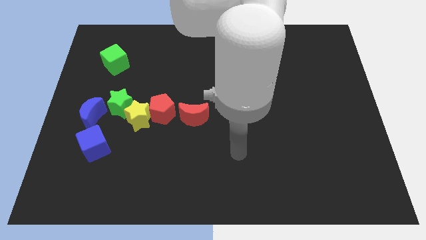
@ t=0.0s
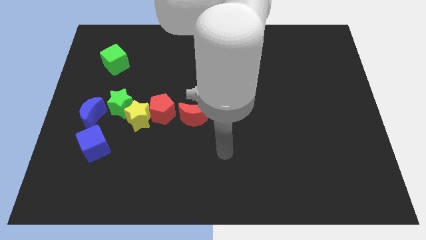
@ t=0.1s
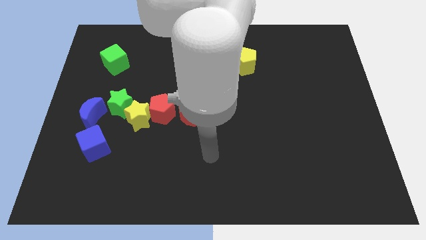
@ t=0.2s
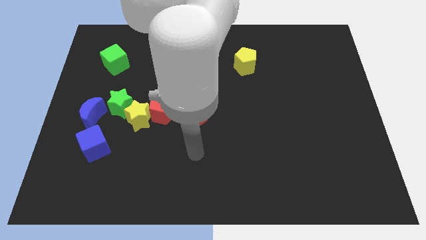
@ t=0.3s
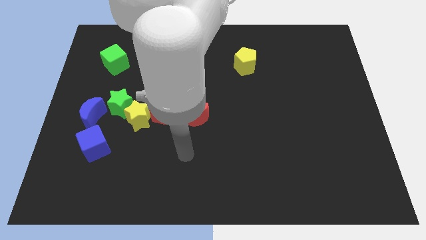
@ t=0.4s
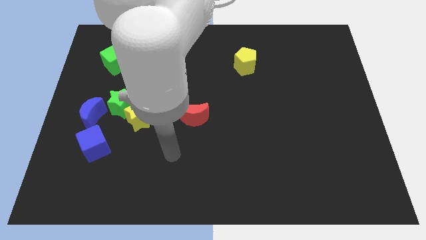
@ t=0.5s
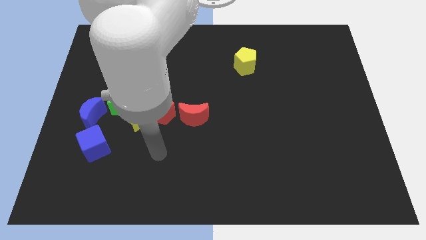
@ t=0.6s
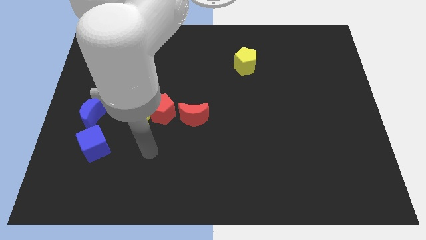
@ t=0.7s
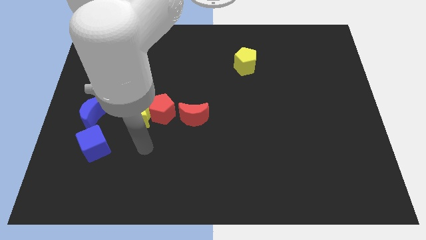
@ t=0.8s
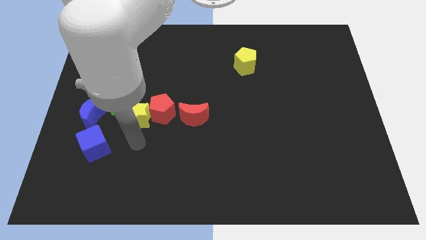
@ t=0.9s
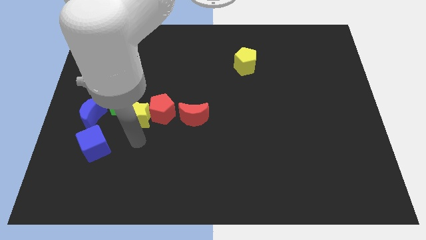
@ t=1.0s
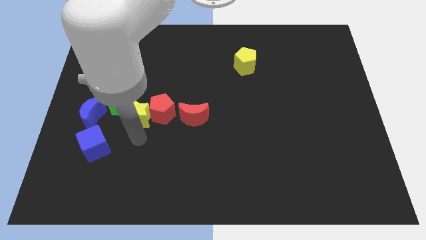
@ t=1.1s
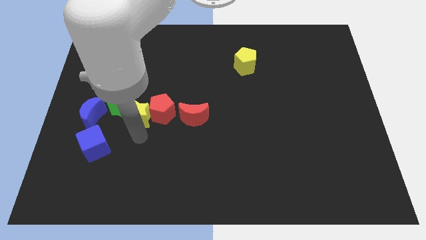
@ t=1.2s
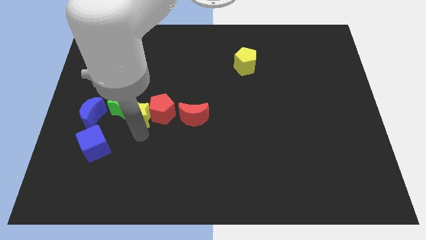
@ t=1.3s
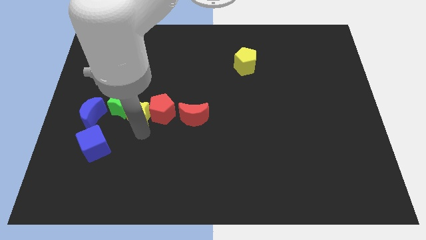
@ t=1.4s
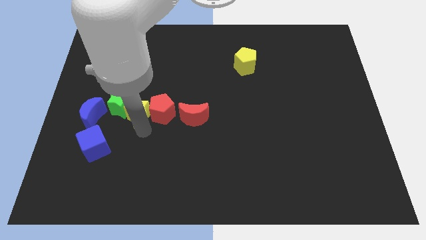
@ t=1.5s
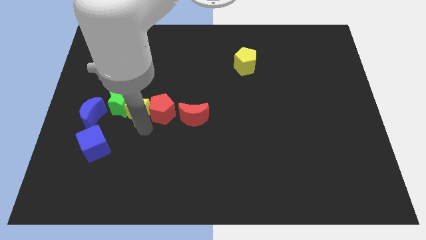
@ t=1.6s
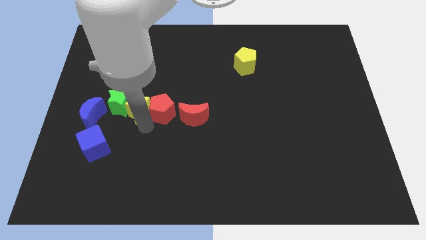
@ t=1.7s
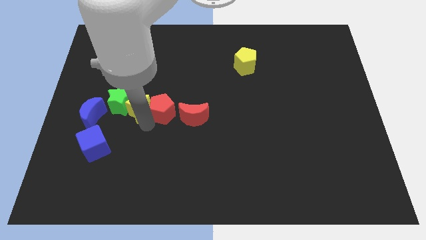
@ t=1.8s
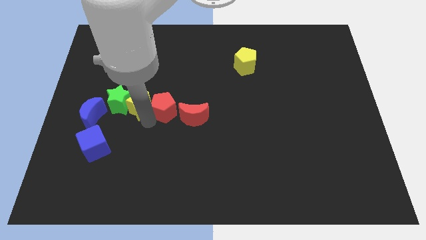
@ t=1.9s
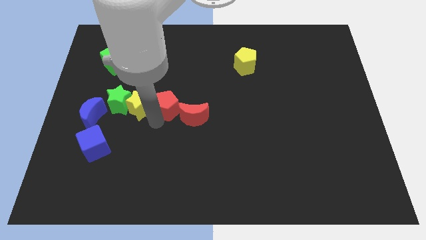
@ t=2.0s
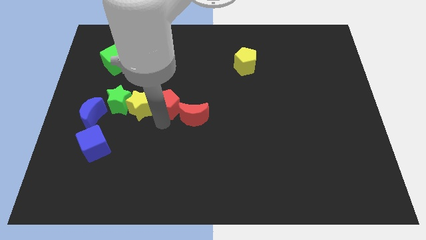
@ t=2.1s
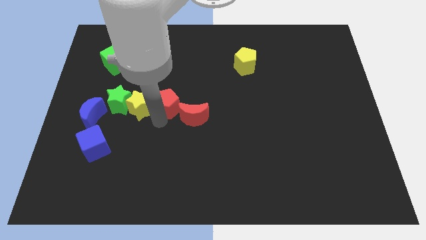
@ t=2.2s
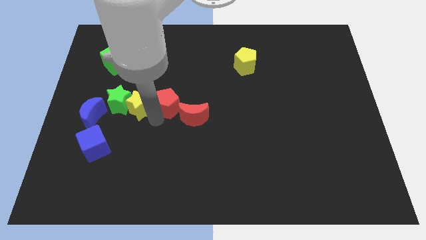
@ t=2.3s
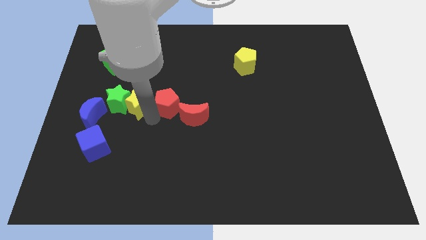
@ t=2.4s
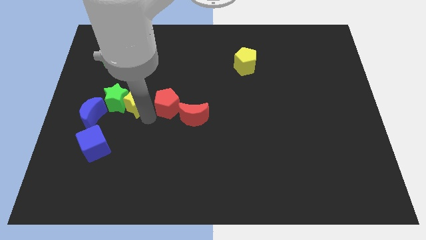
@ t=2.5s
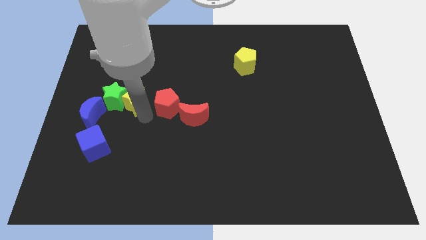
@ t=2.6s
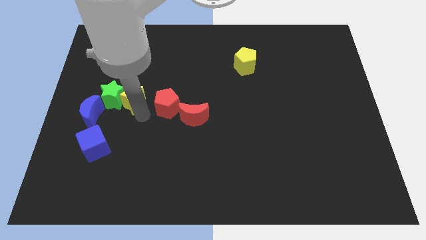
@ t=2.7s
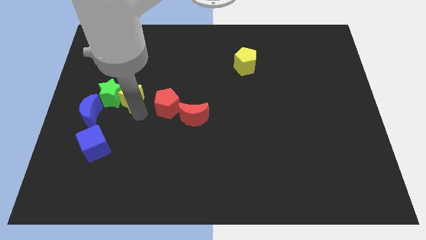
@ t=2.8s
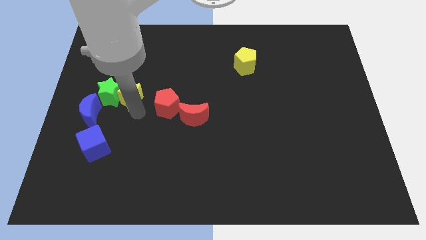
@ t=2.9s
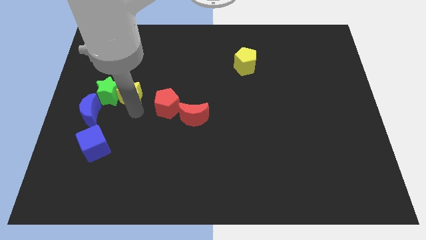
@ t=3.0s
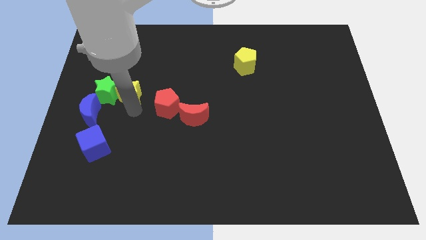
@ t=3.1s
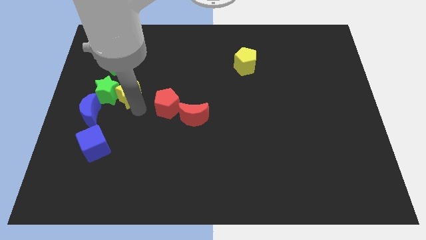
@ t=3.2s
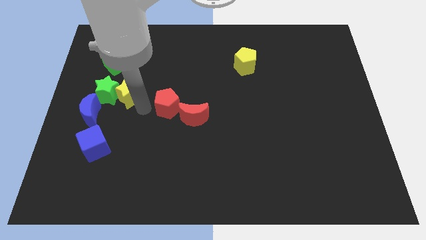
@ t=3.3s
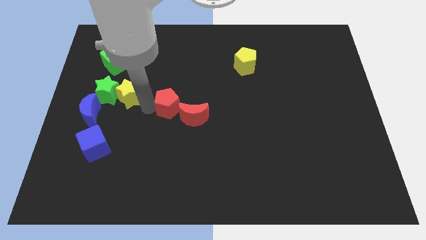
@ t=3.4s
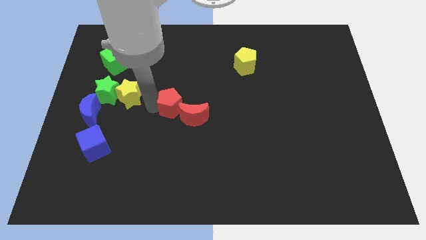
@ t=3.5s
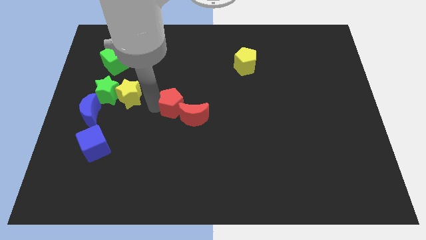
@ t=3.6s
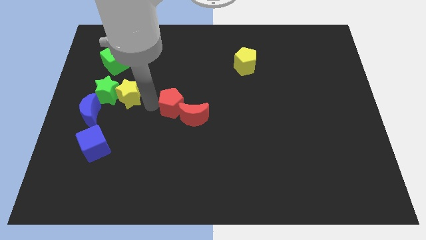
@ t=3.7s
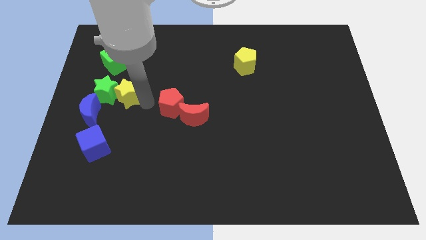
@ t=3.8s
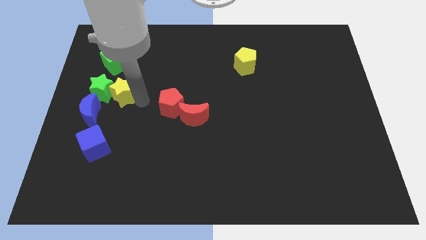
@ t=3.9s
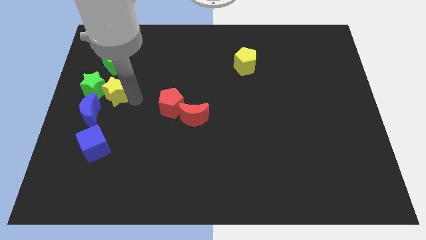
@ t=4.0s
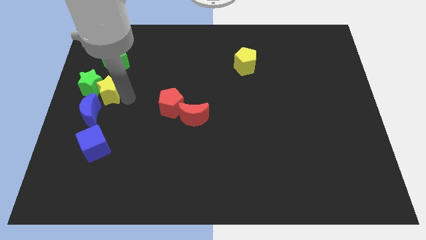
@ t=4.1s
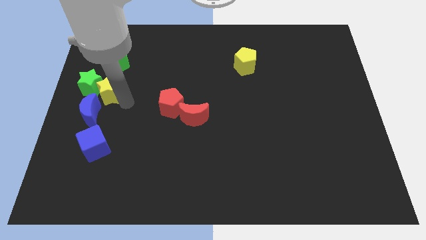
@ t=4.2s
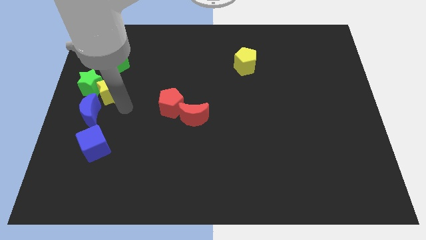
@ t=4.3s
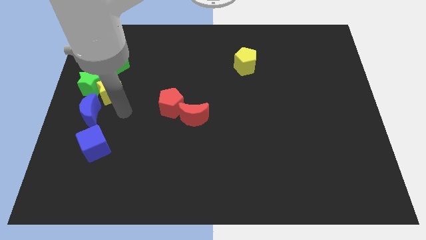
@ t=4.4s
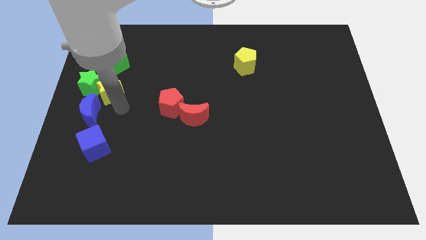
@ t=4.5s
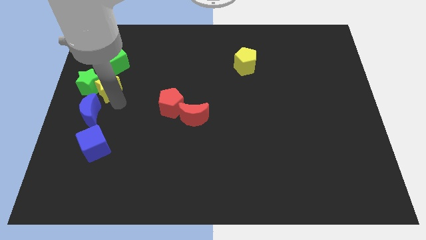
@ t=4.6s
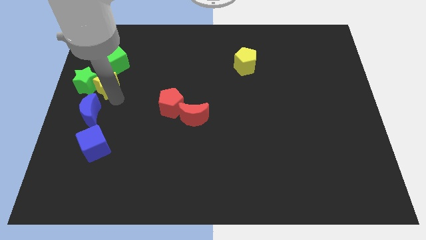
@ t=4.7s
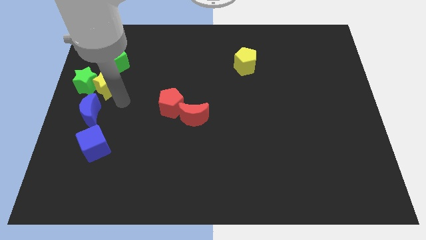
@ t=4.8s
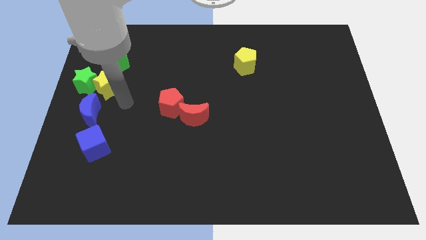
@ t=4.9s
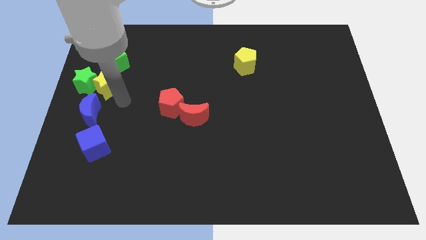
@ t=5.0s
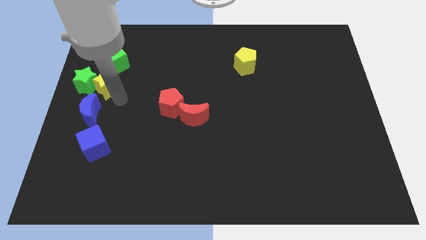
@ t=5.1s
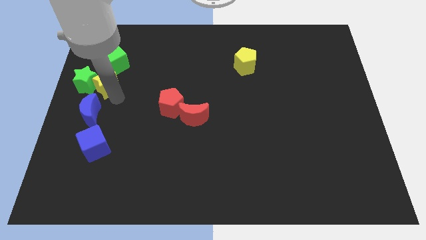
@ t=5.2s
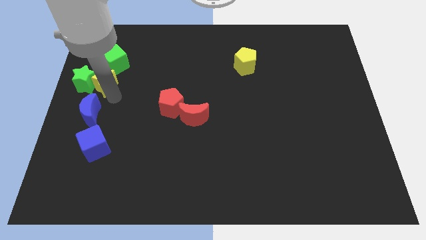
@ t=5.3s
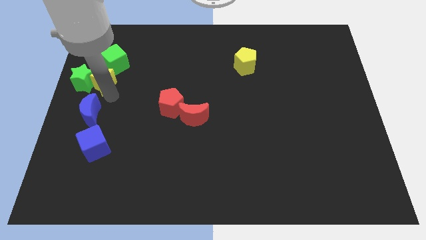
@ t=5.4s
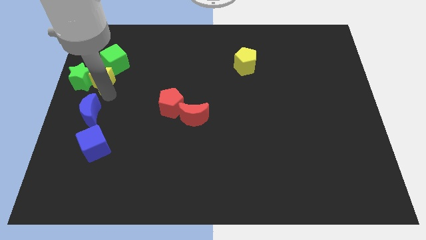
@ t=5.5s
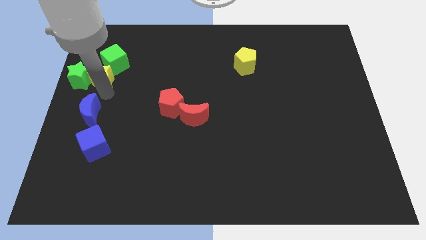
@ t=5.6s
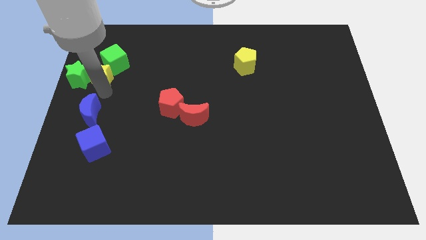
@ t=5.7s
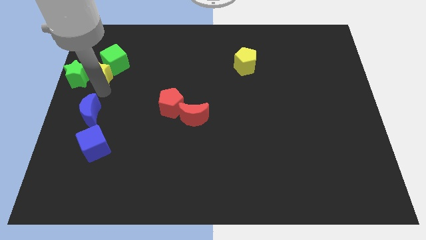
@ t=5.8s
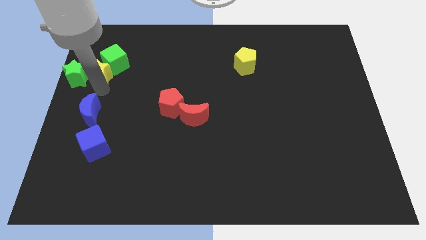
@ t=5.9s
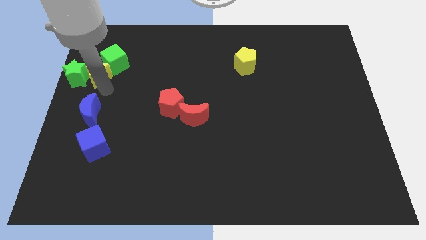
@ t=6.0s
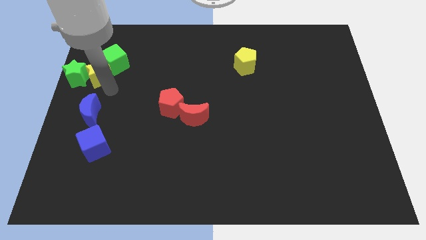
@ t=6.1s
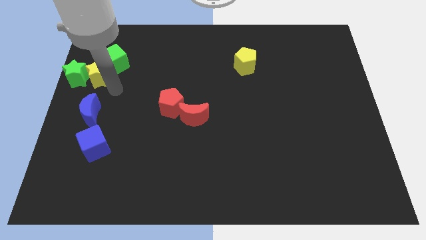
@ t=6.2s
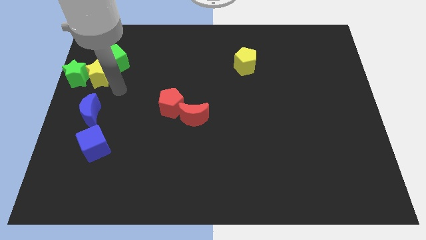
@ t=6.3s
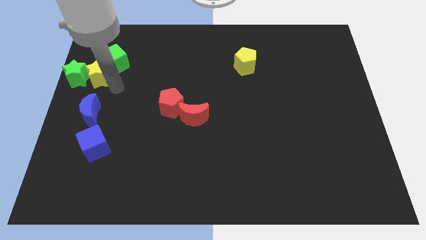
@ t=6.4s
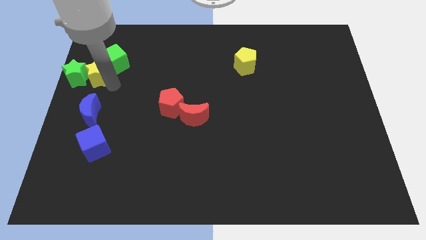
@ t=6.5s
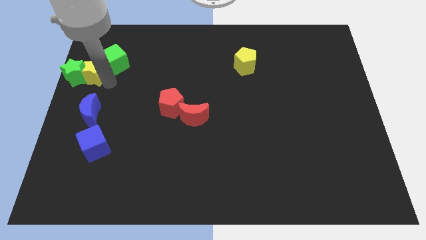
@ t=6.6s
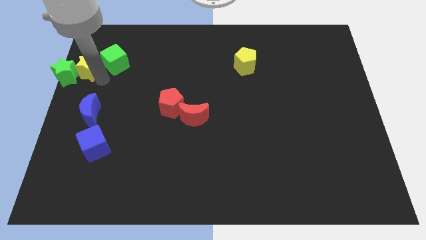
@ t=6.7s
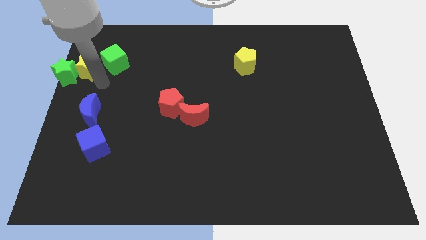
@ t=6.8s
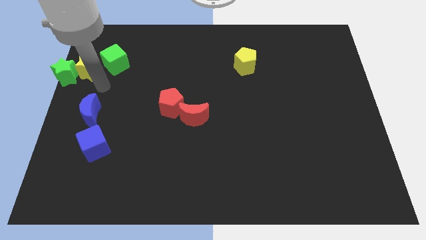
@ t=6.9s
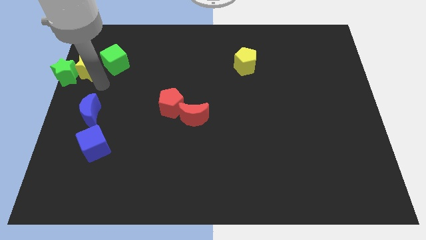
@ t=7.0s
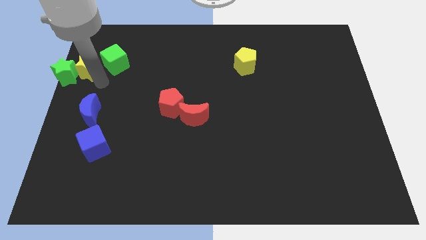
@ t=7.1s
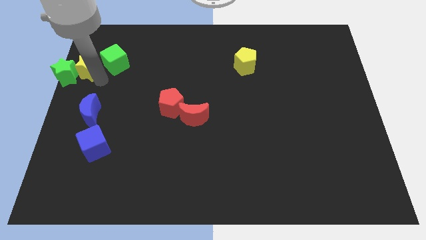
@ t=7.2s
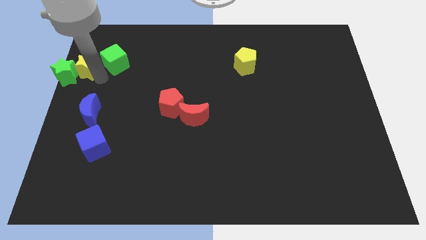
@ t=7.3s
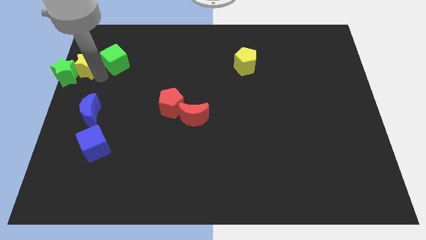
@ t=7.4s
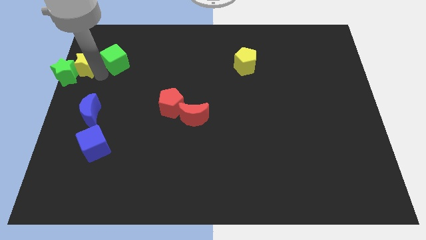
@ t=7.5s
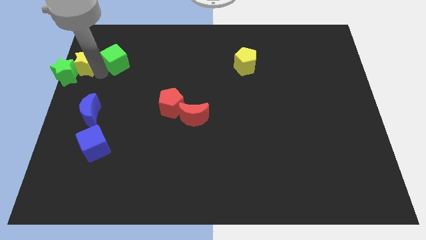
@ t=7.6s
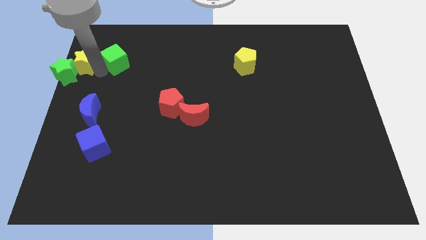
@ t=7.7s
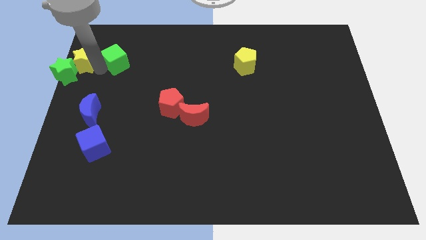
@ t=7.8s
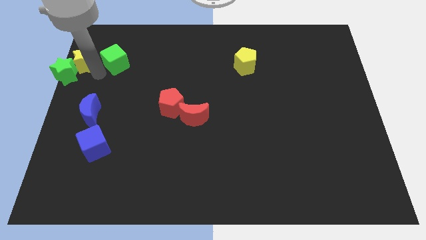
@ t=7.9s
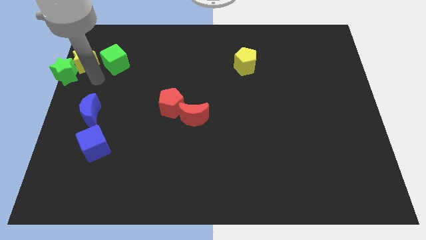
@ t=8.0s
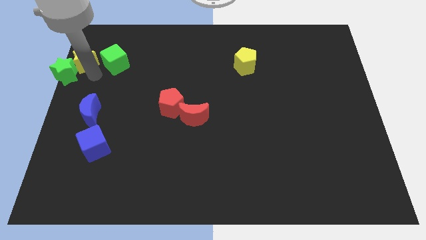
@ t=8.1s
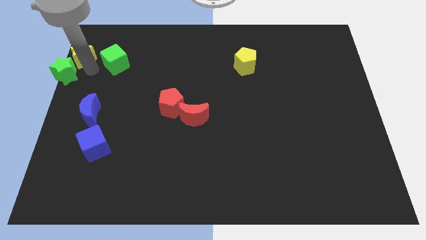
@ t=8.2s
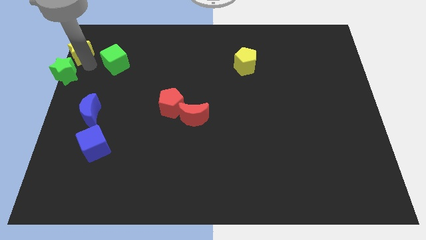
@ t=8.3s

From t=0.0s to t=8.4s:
move the yellow star to the top left
